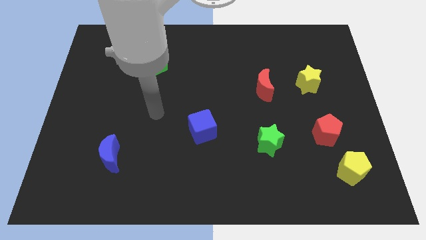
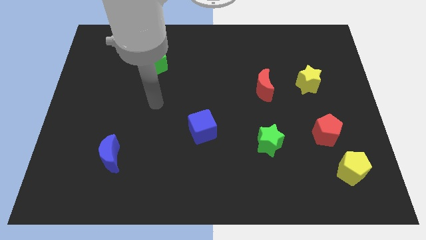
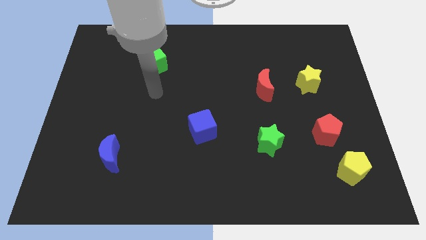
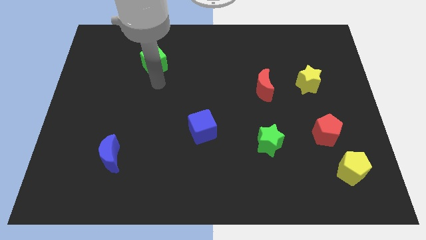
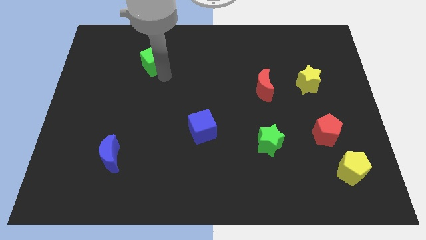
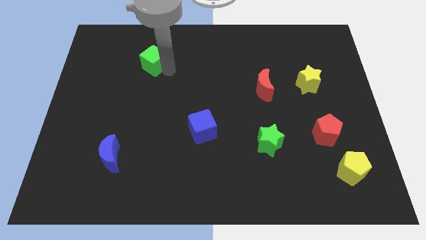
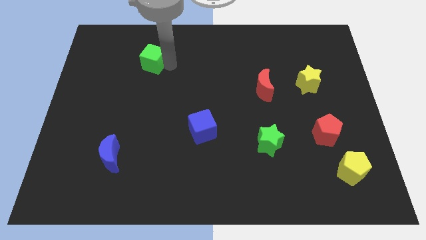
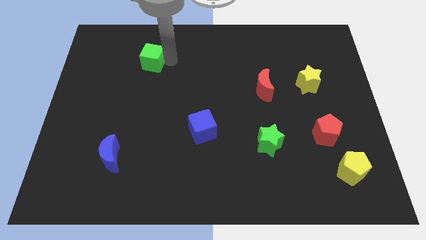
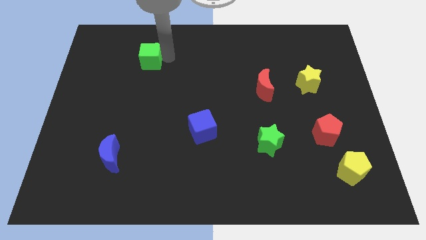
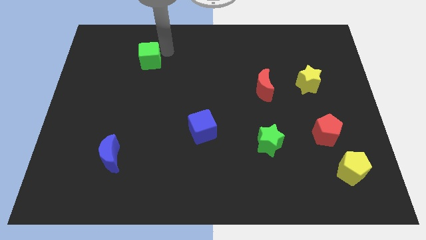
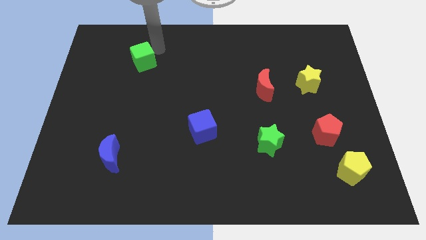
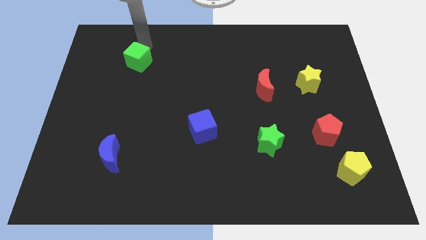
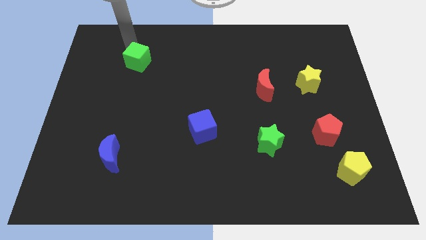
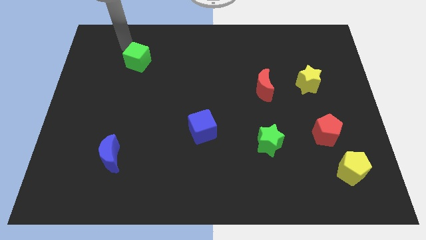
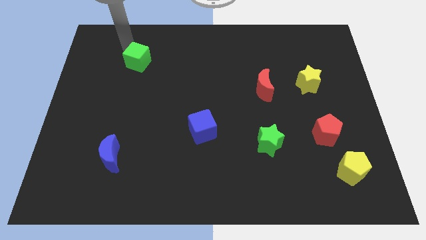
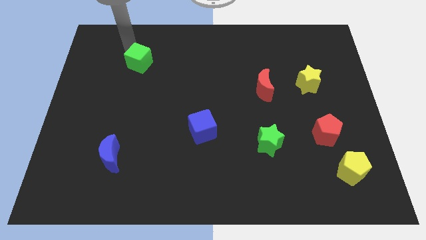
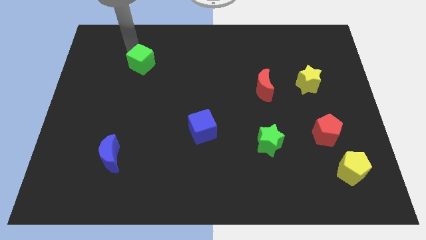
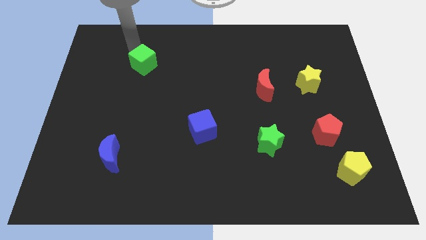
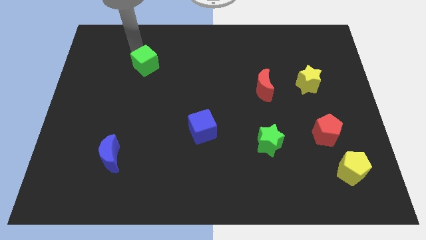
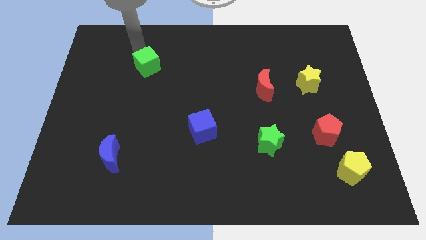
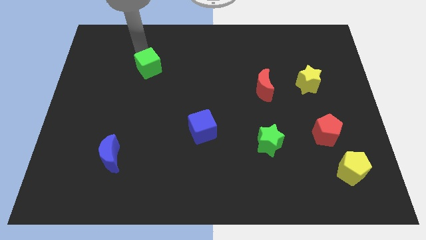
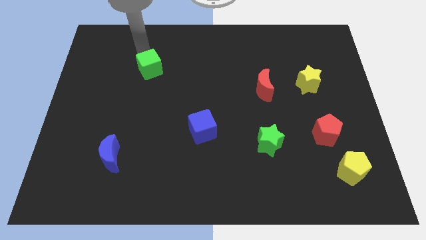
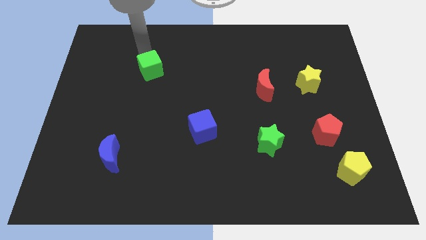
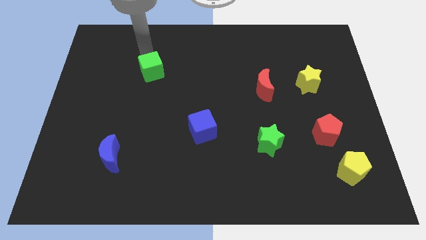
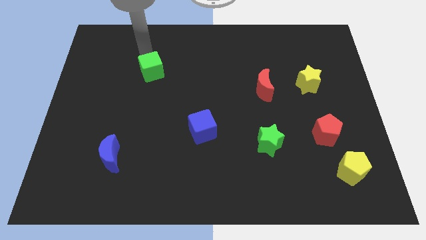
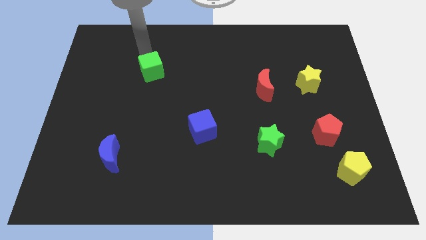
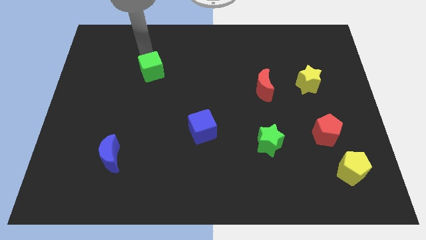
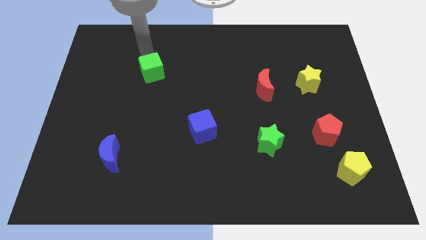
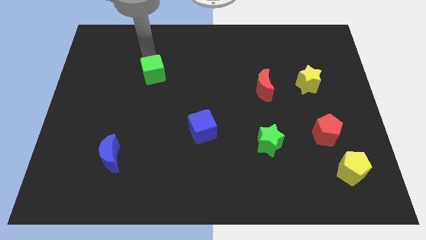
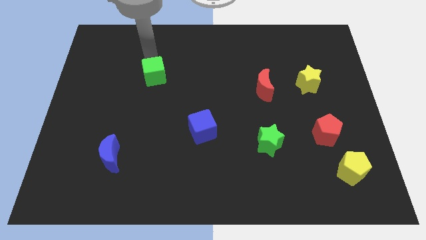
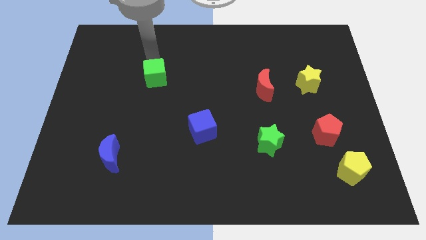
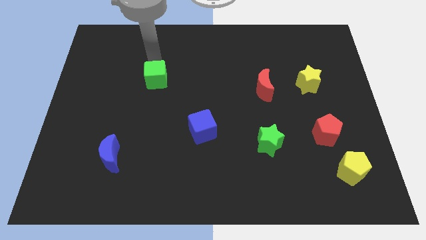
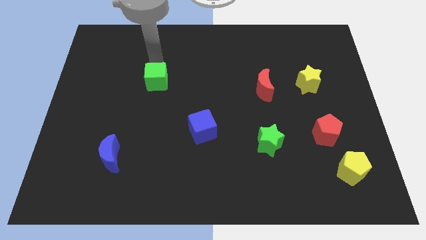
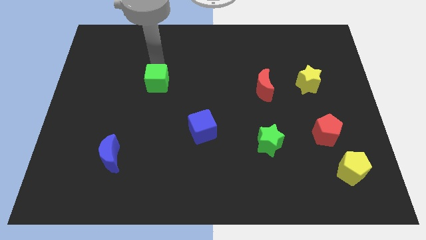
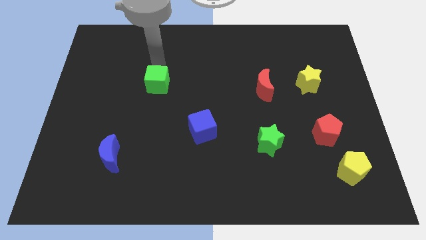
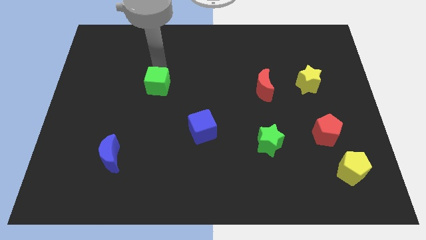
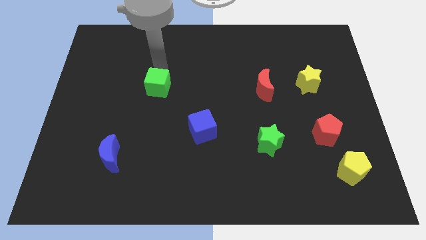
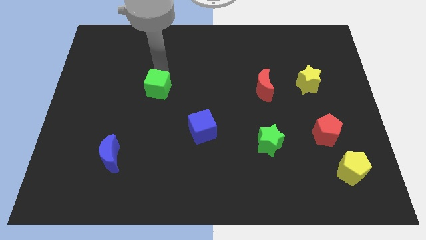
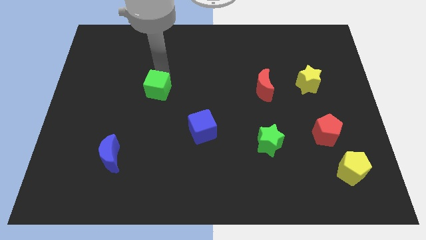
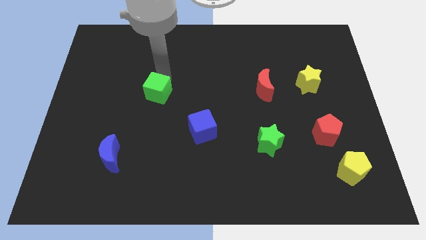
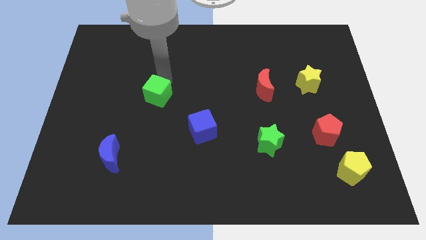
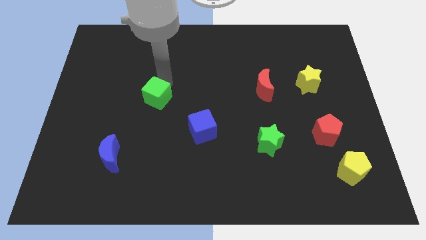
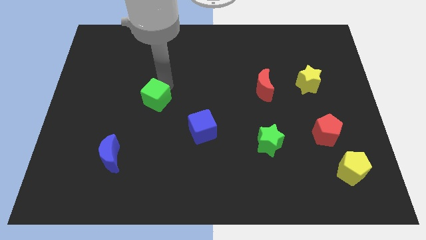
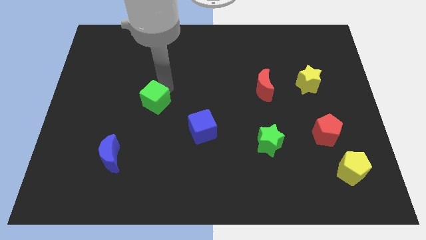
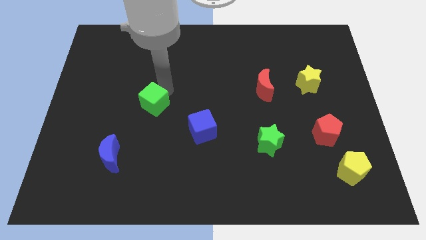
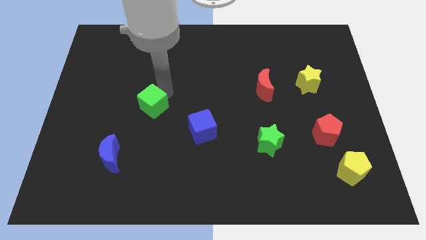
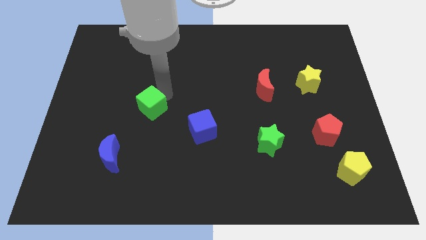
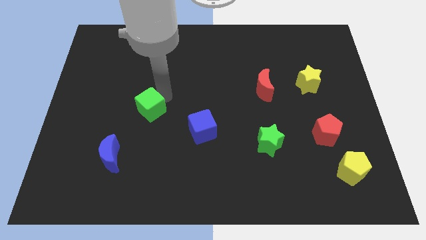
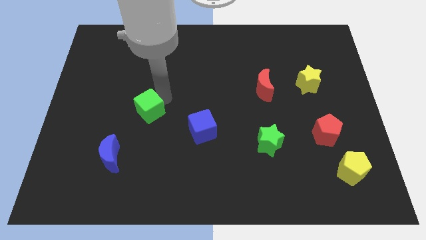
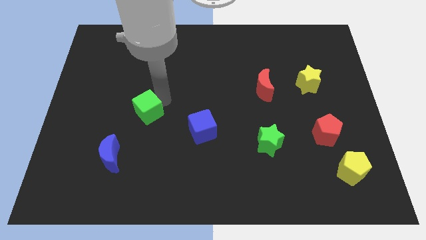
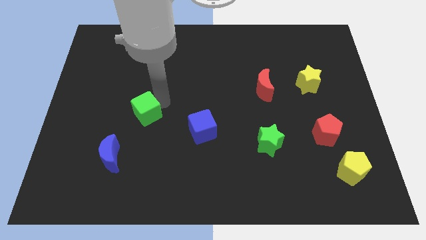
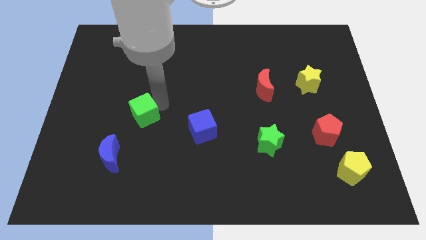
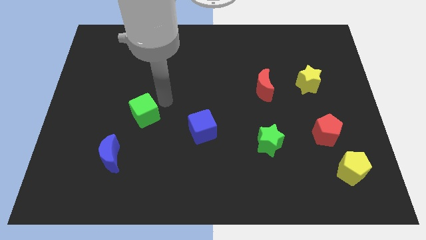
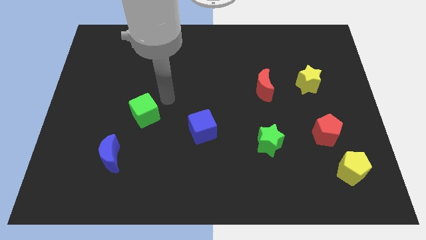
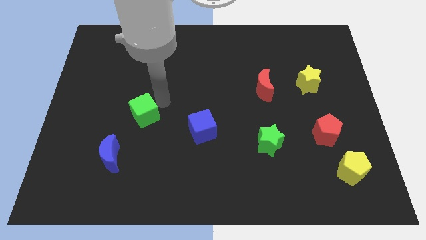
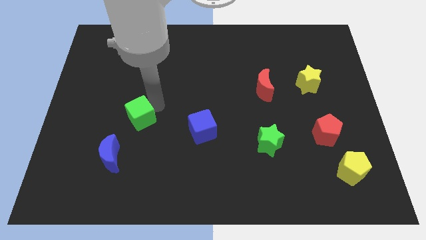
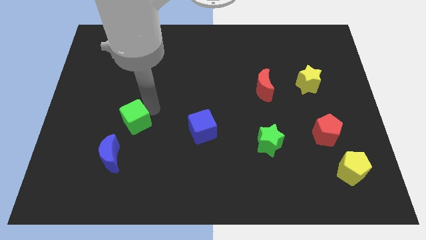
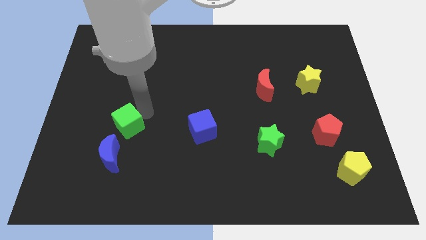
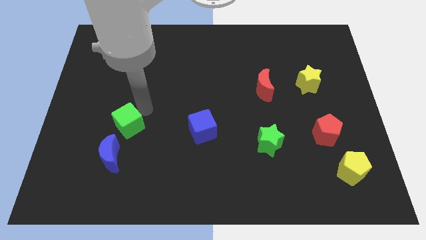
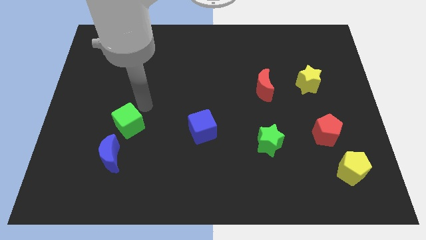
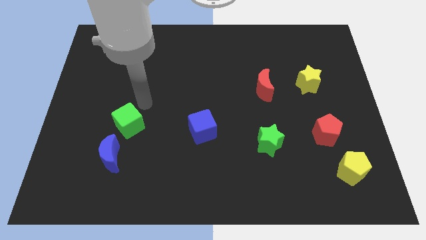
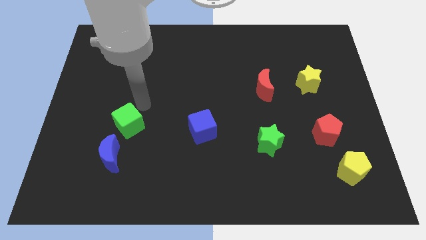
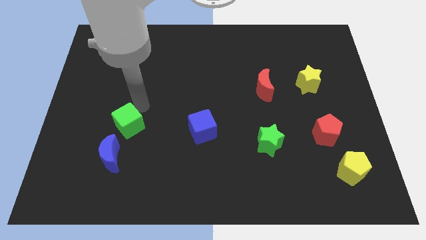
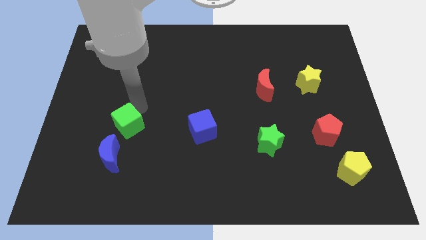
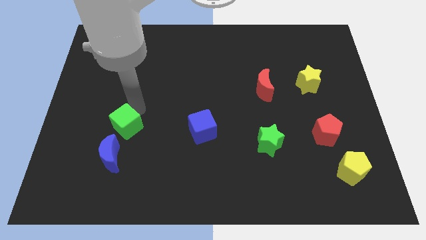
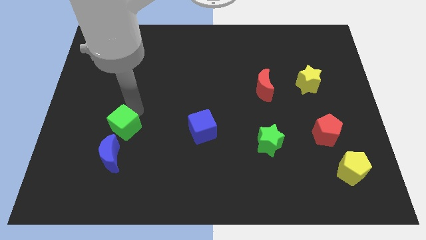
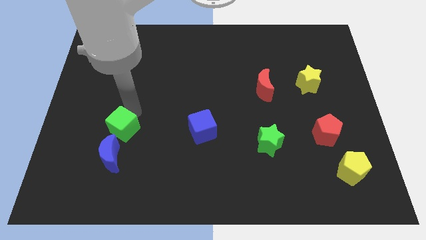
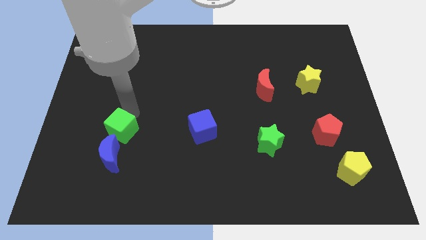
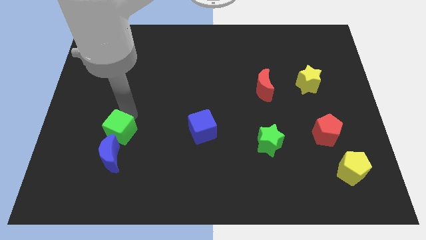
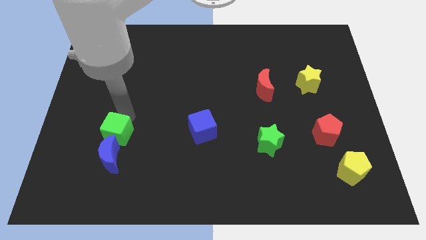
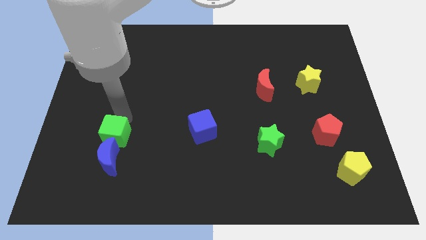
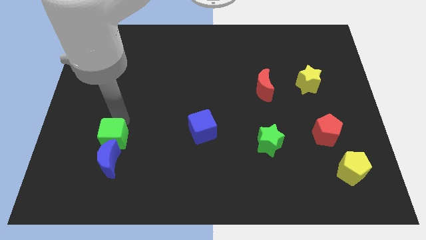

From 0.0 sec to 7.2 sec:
move the green cube next to the blue moon
